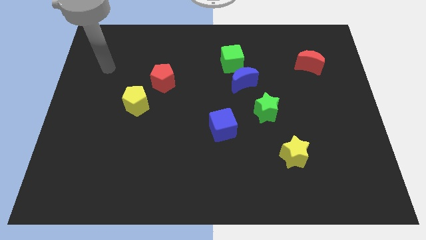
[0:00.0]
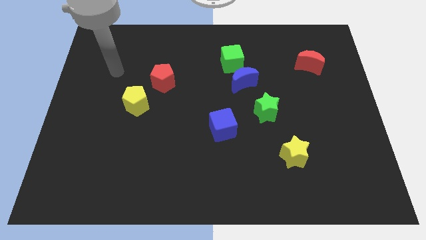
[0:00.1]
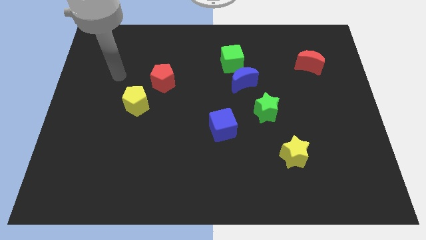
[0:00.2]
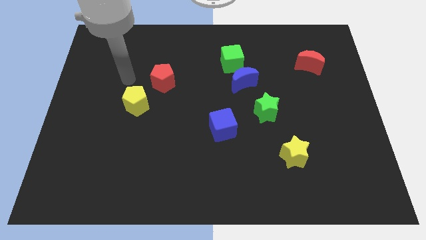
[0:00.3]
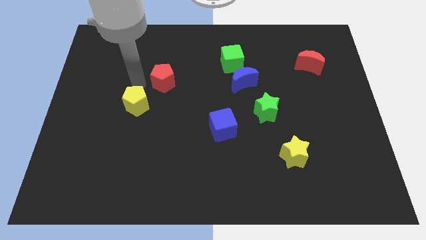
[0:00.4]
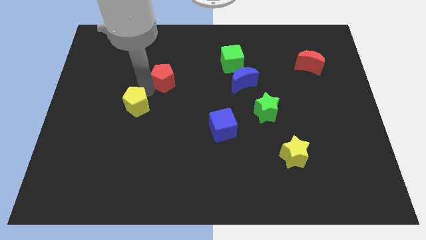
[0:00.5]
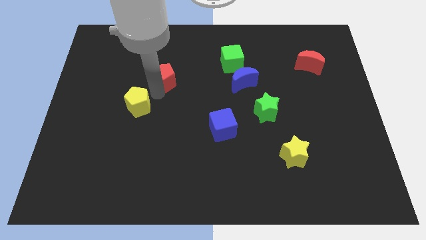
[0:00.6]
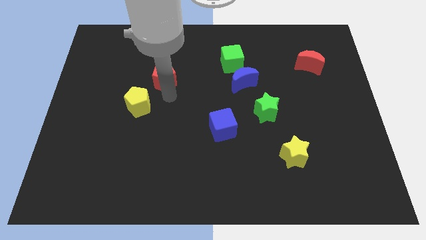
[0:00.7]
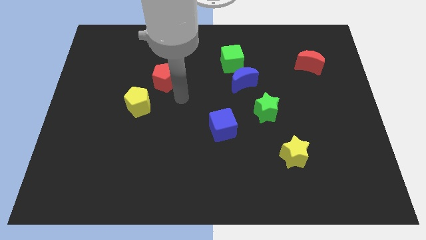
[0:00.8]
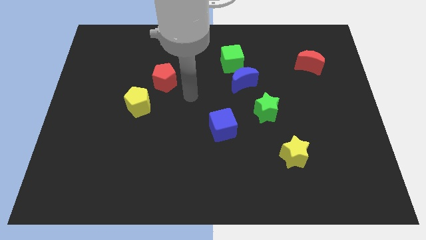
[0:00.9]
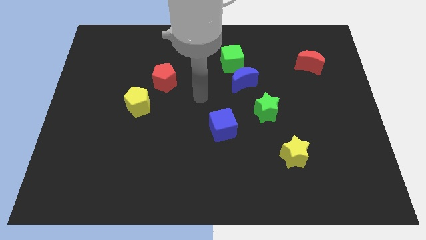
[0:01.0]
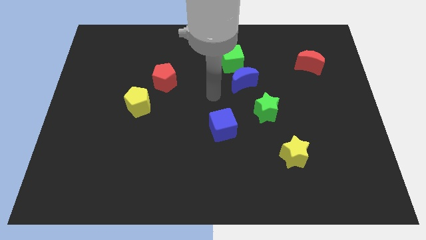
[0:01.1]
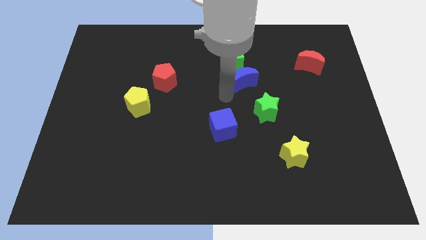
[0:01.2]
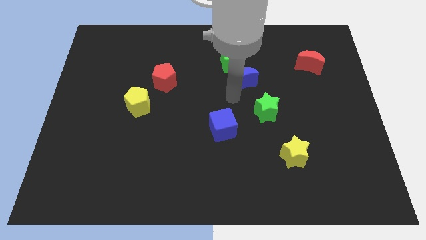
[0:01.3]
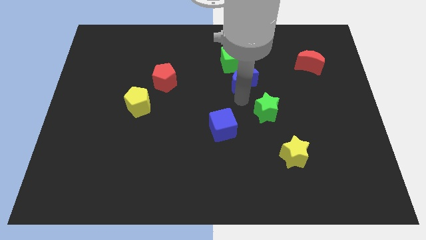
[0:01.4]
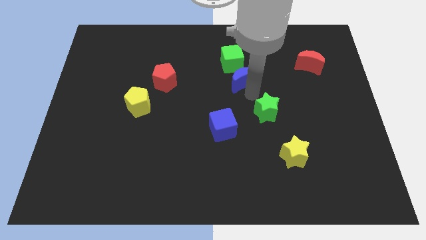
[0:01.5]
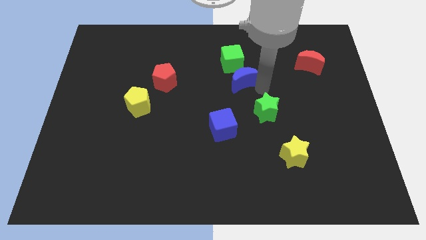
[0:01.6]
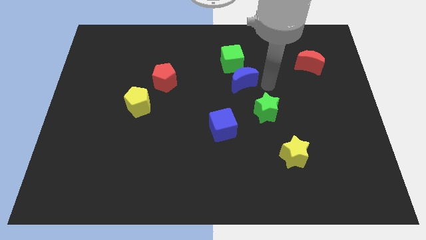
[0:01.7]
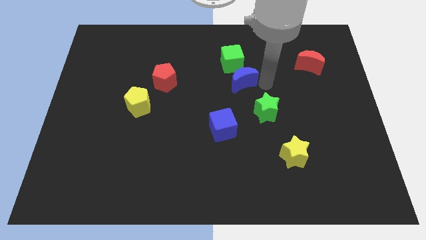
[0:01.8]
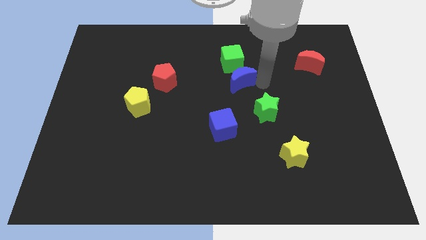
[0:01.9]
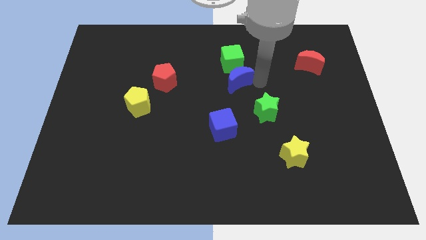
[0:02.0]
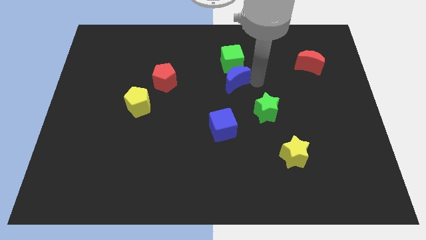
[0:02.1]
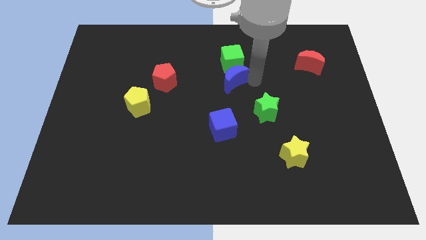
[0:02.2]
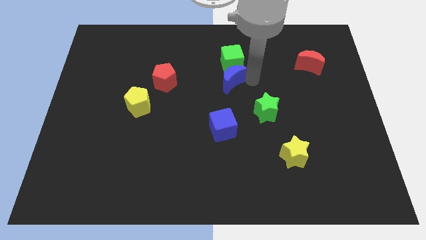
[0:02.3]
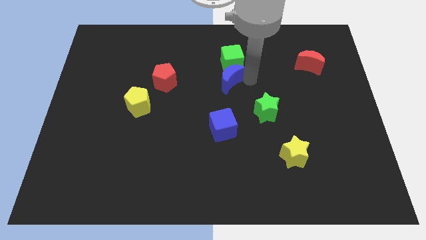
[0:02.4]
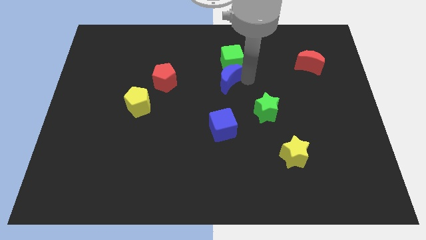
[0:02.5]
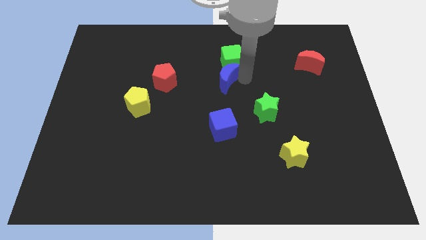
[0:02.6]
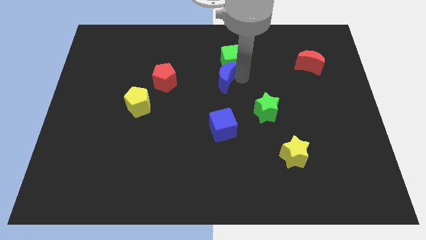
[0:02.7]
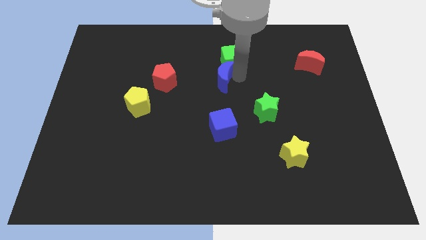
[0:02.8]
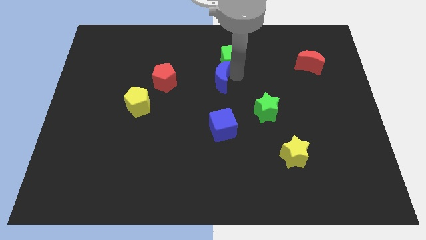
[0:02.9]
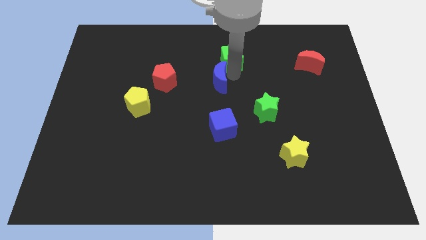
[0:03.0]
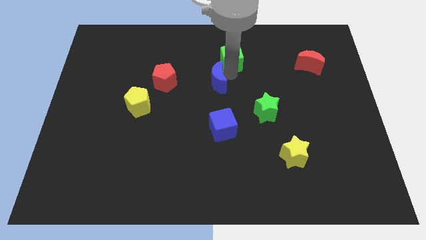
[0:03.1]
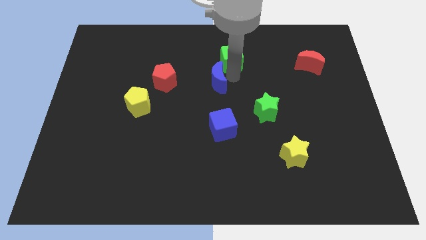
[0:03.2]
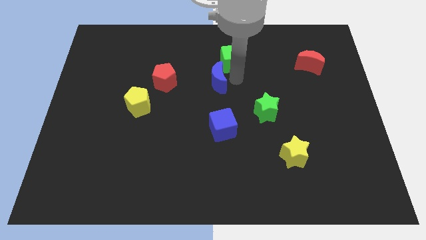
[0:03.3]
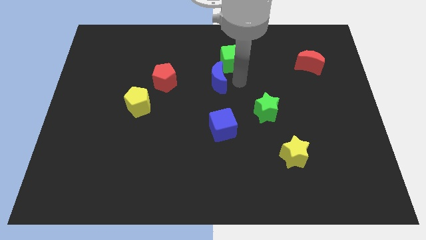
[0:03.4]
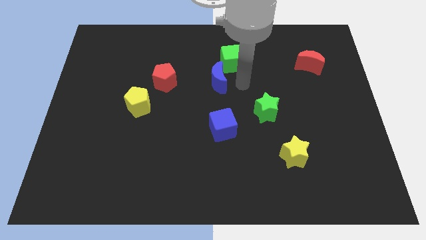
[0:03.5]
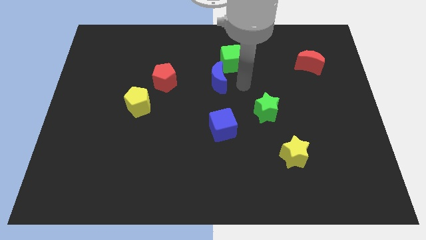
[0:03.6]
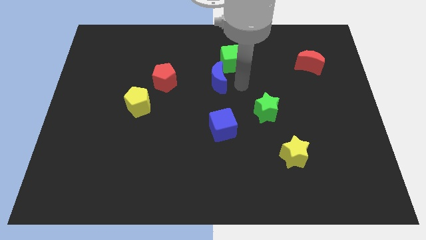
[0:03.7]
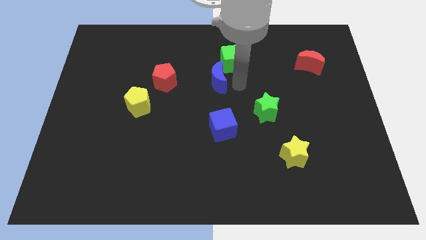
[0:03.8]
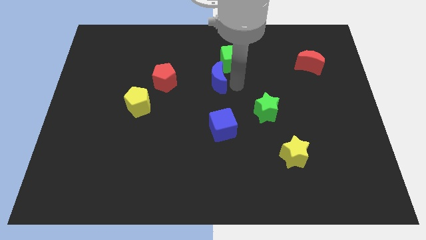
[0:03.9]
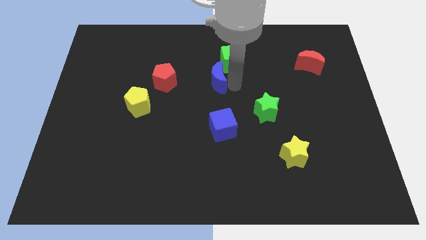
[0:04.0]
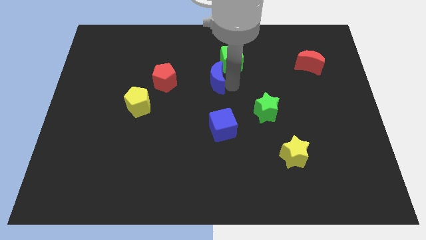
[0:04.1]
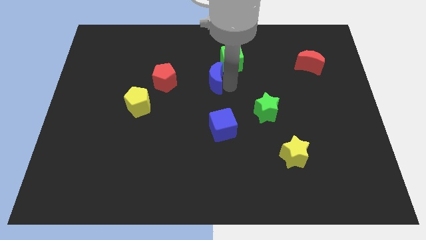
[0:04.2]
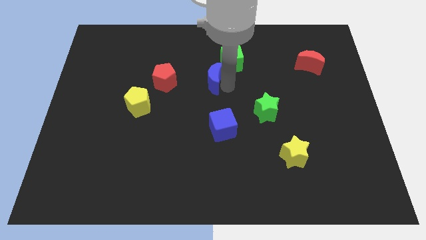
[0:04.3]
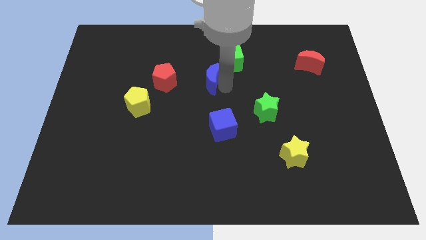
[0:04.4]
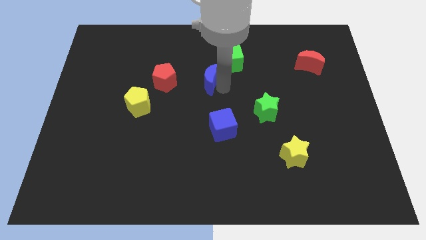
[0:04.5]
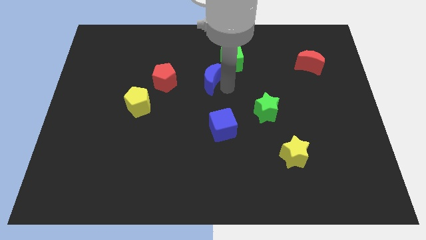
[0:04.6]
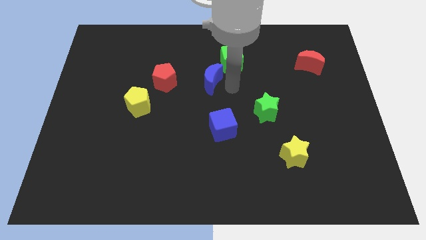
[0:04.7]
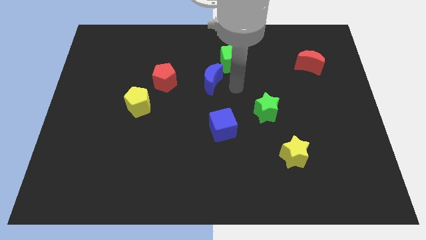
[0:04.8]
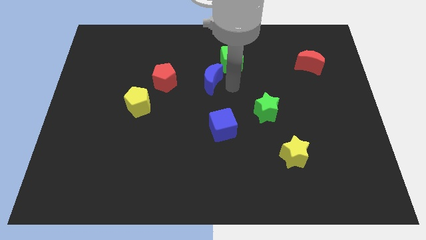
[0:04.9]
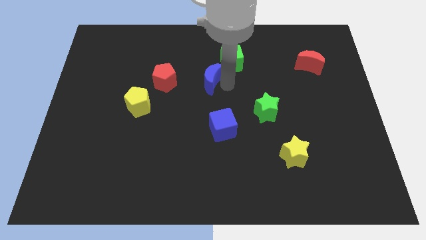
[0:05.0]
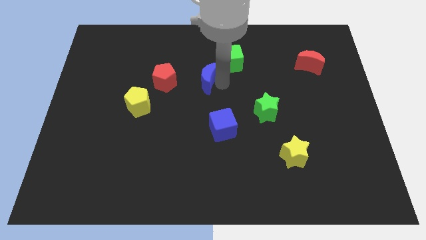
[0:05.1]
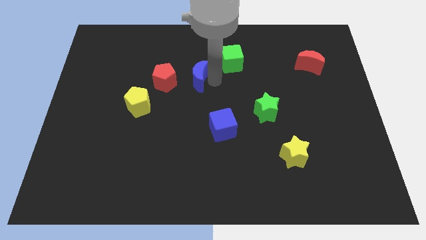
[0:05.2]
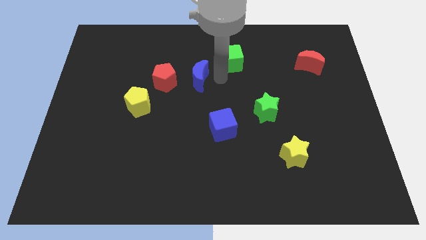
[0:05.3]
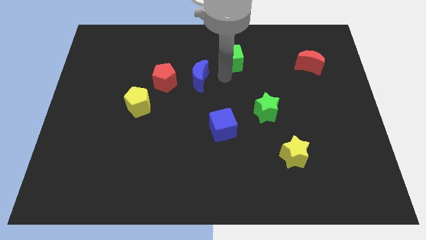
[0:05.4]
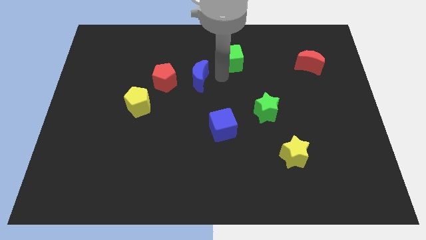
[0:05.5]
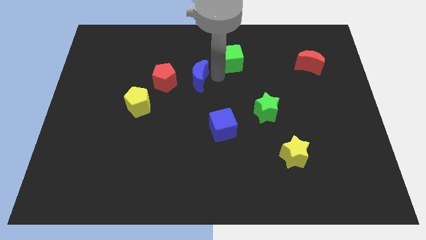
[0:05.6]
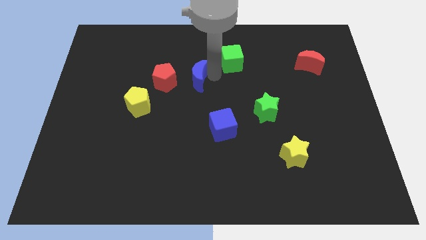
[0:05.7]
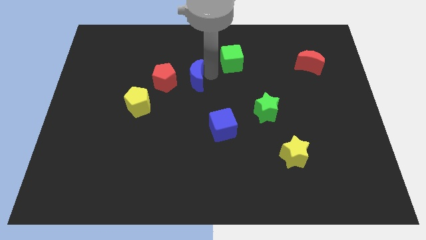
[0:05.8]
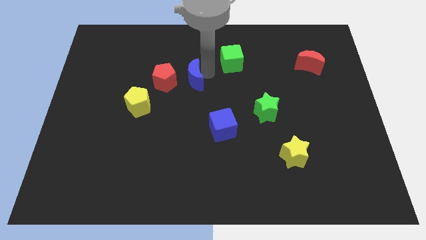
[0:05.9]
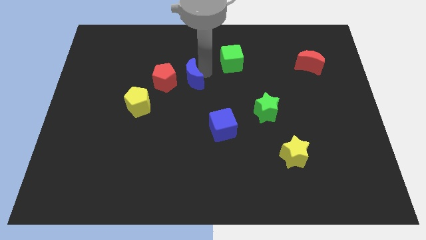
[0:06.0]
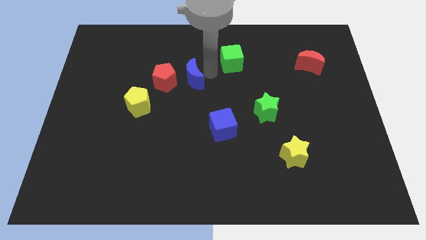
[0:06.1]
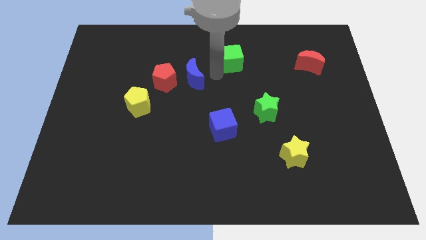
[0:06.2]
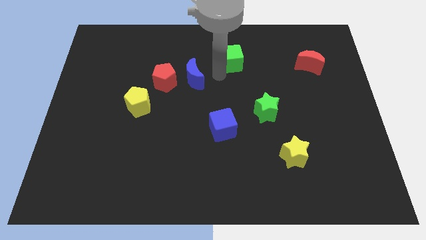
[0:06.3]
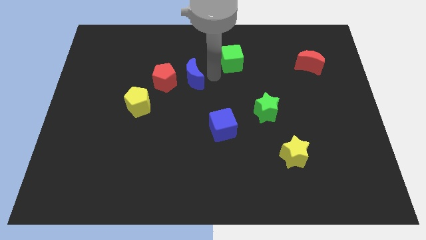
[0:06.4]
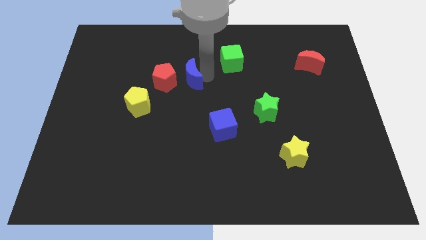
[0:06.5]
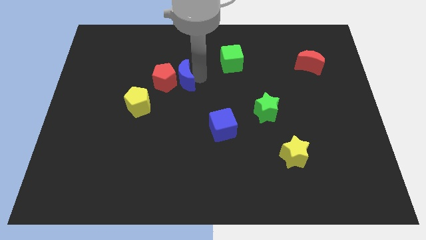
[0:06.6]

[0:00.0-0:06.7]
slide the blue moon close to the red pentagon

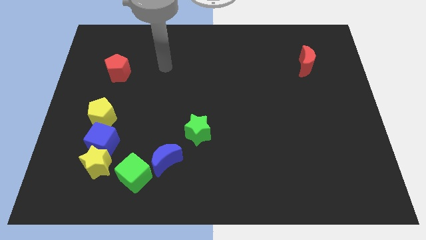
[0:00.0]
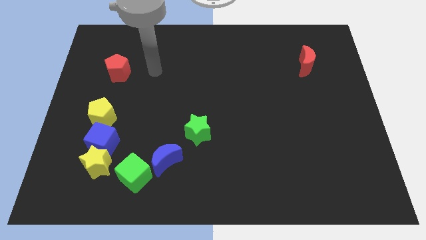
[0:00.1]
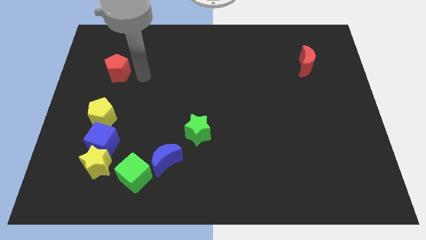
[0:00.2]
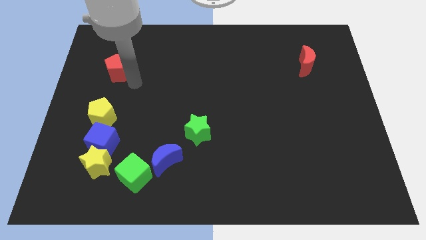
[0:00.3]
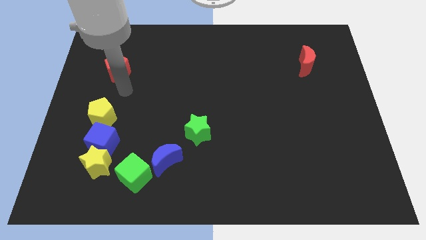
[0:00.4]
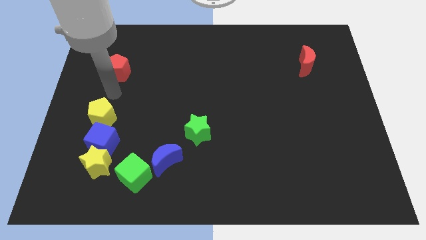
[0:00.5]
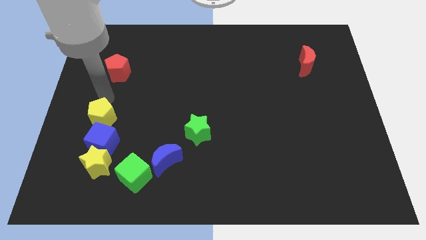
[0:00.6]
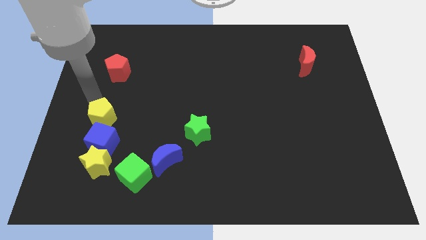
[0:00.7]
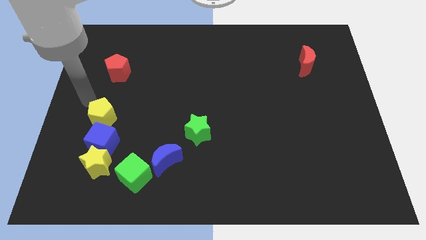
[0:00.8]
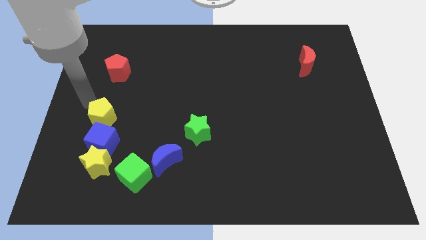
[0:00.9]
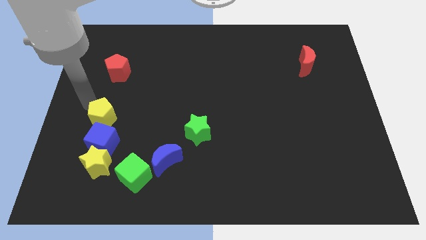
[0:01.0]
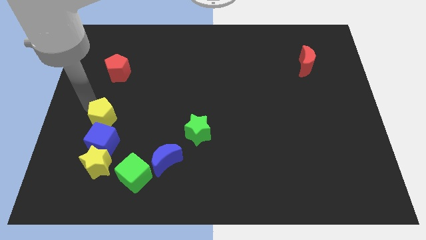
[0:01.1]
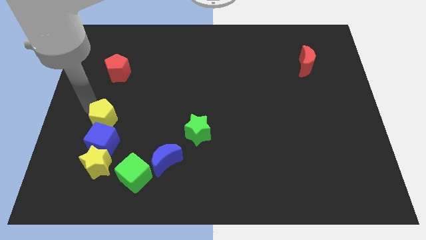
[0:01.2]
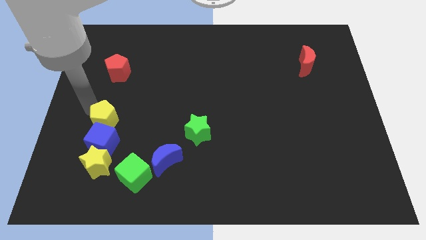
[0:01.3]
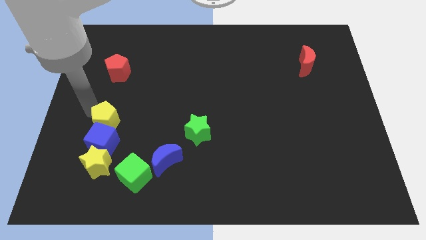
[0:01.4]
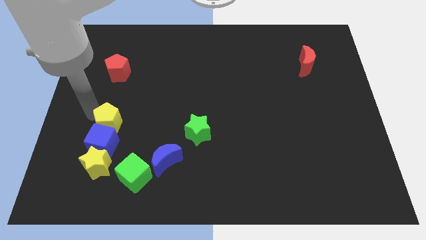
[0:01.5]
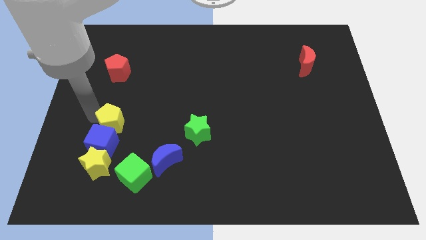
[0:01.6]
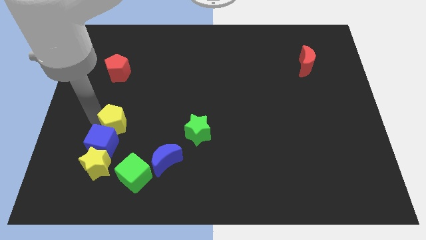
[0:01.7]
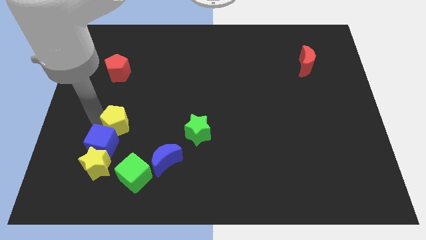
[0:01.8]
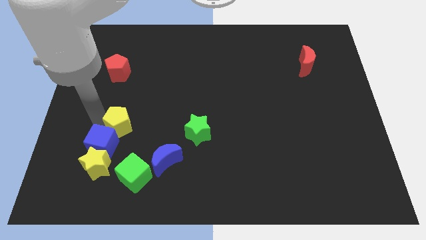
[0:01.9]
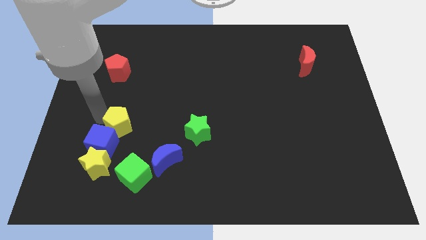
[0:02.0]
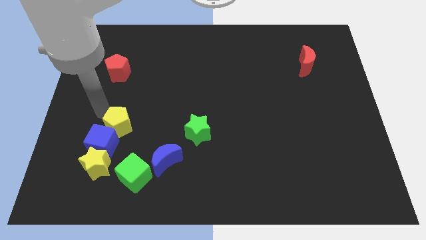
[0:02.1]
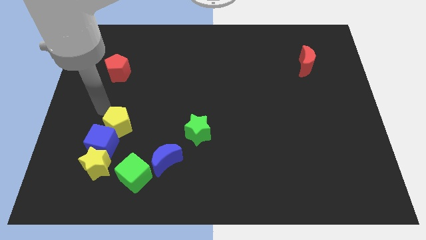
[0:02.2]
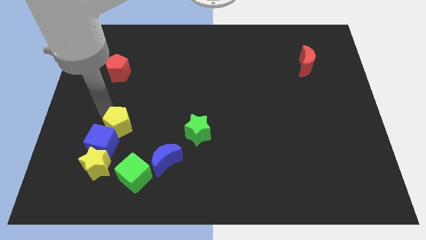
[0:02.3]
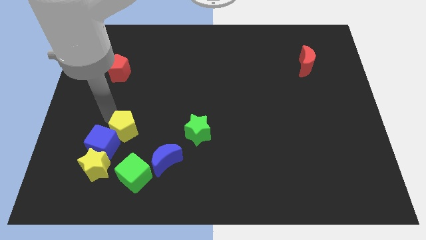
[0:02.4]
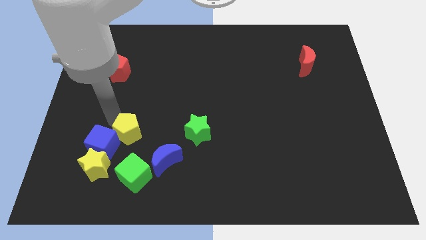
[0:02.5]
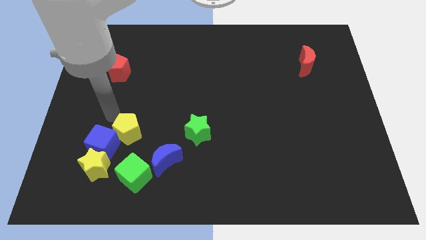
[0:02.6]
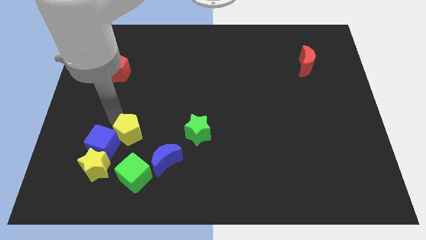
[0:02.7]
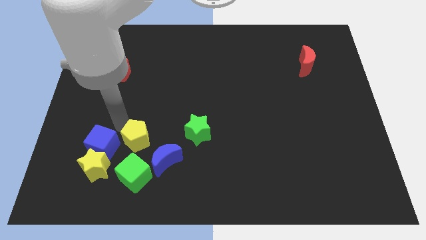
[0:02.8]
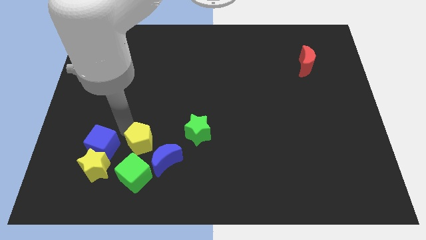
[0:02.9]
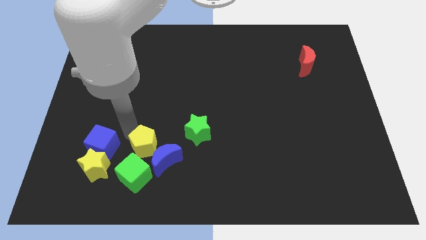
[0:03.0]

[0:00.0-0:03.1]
move the yellow pentagon next to the blue moon
